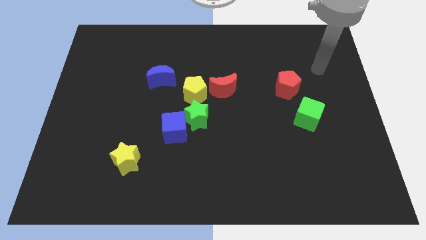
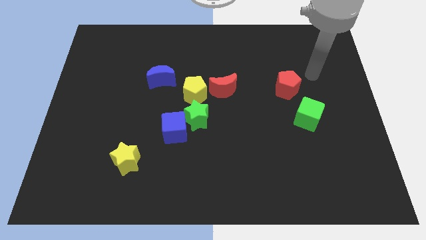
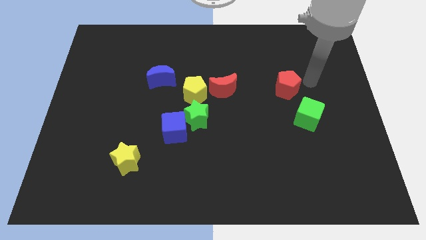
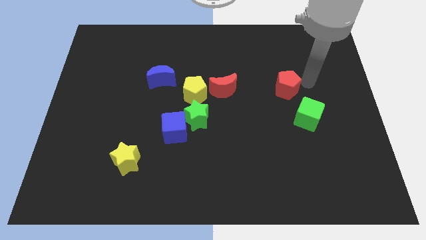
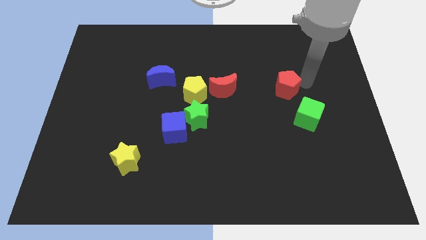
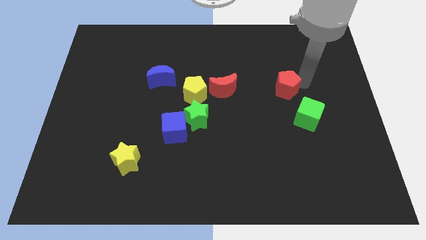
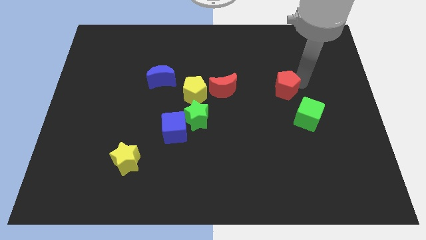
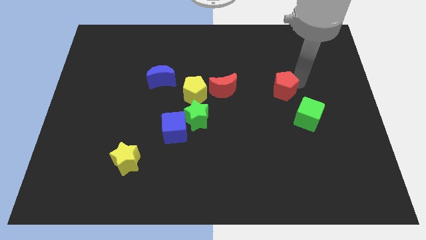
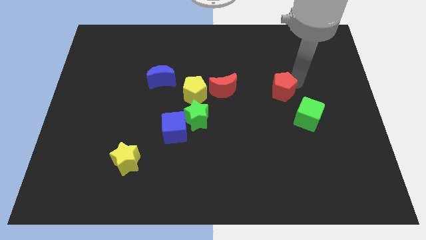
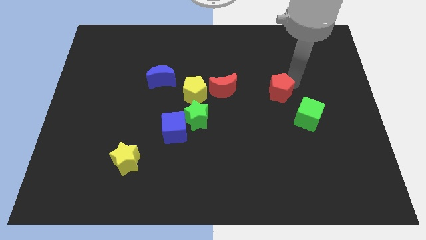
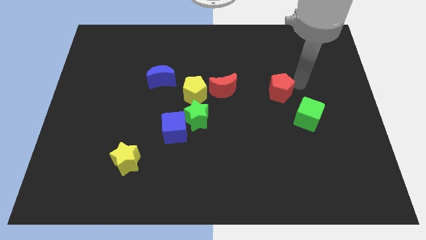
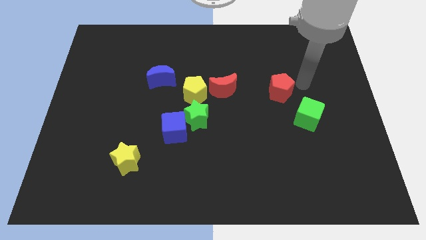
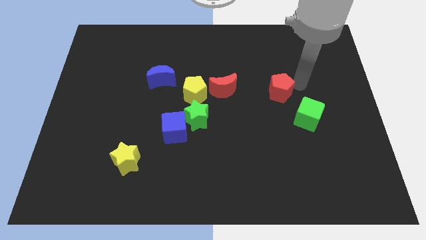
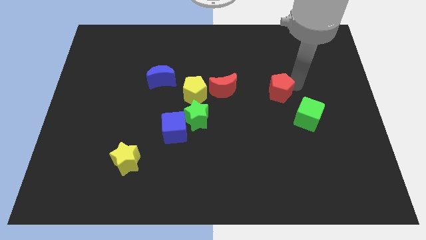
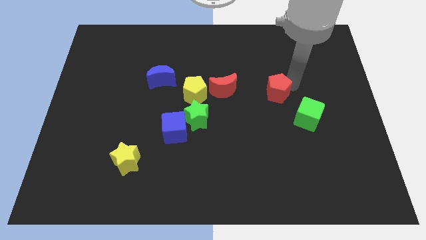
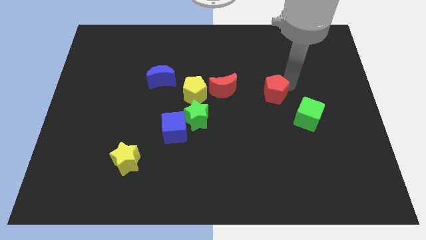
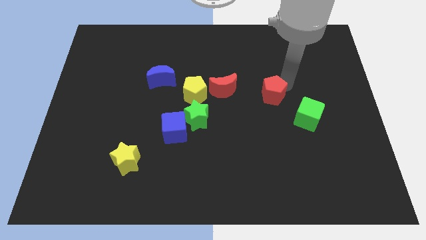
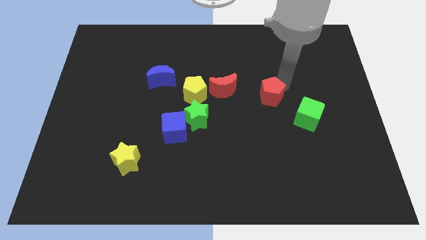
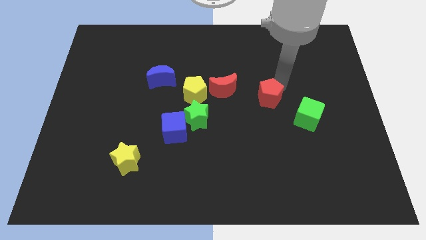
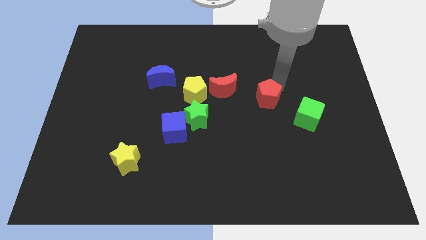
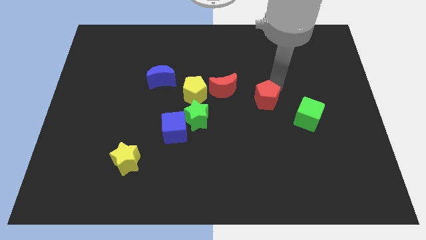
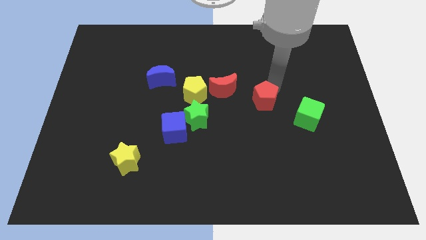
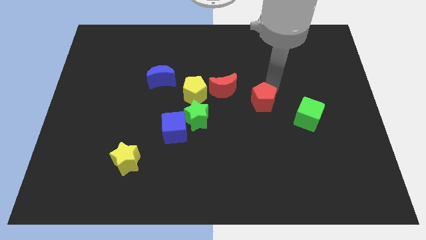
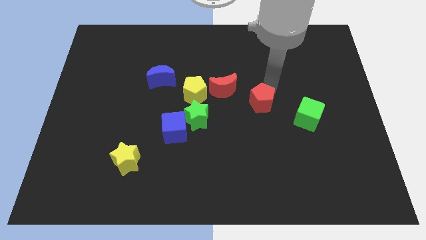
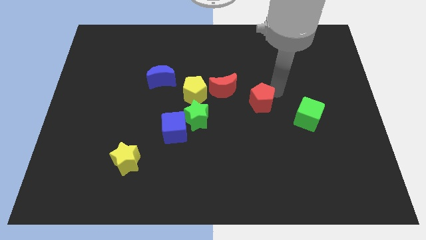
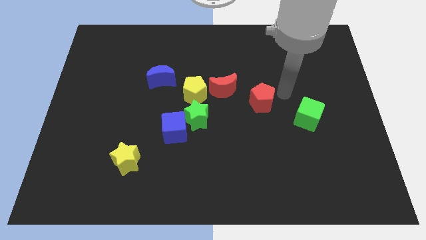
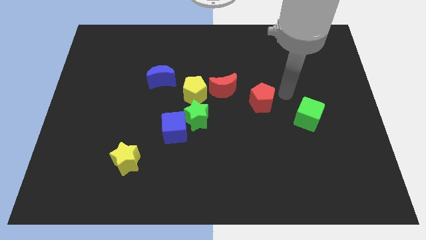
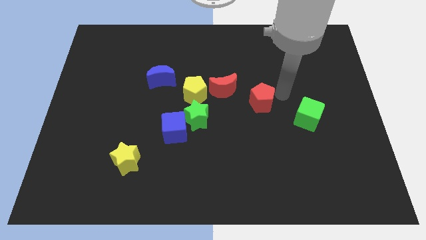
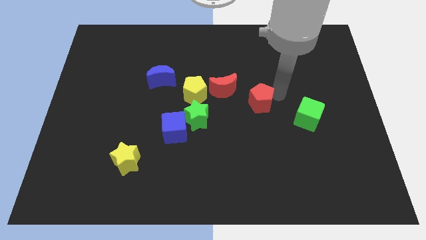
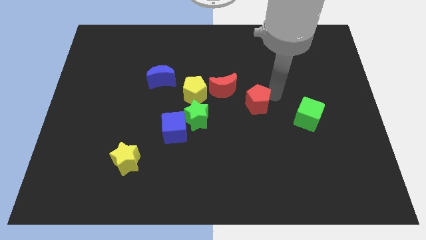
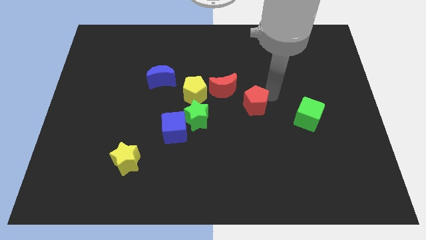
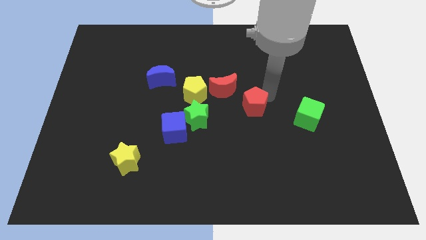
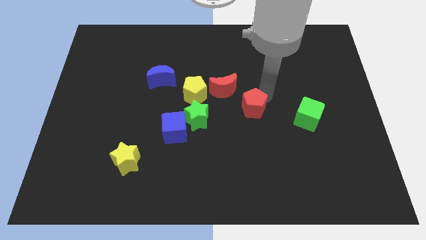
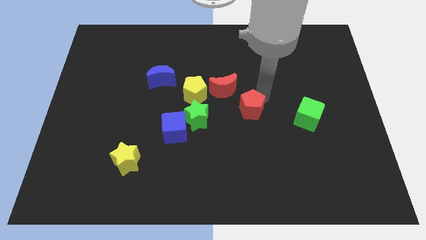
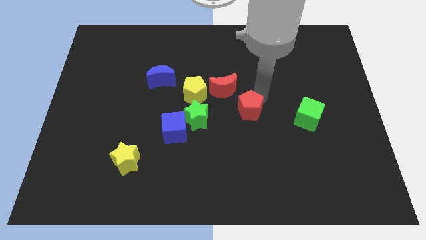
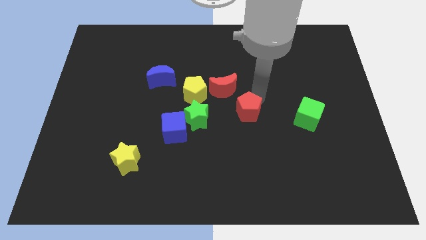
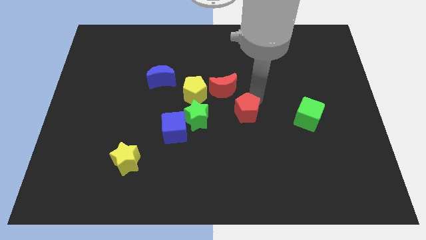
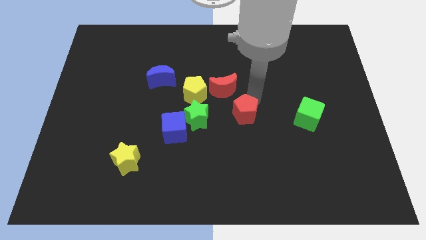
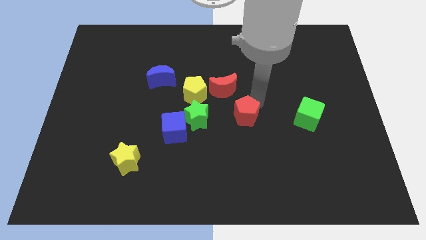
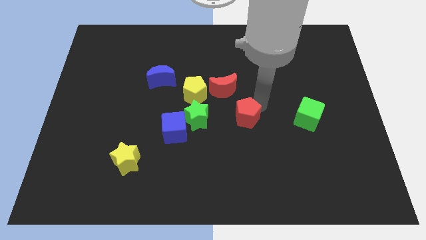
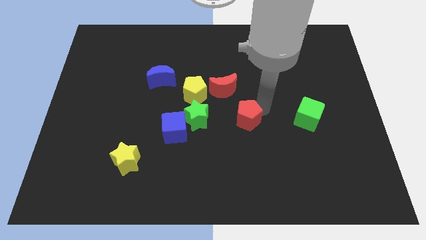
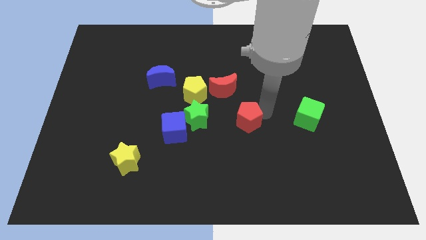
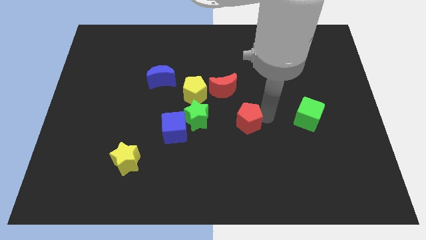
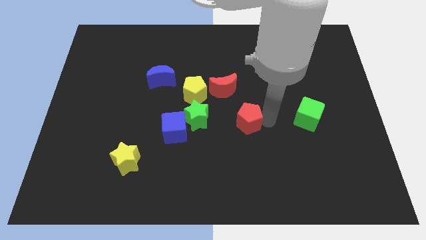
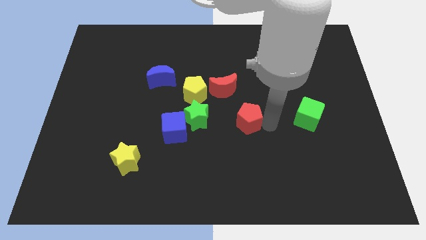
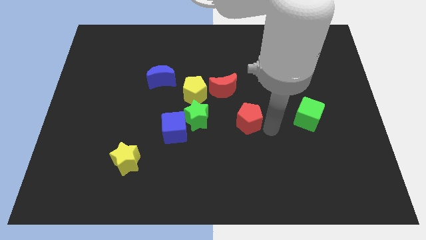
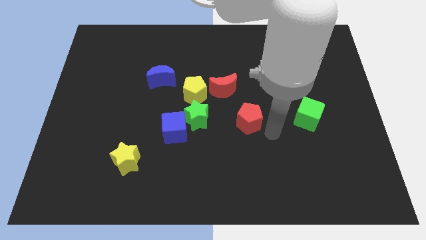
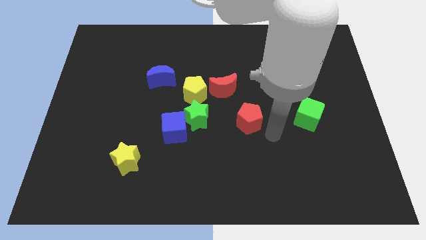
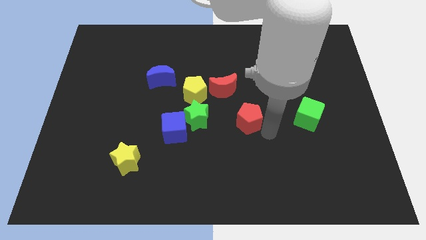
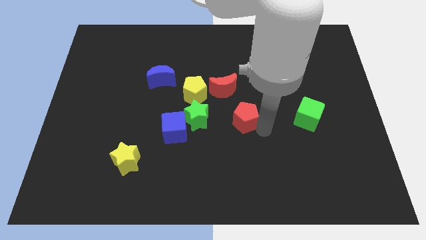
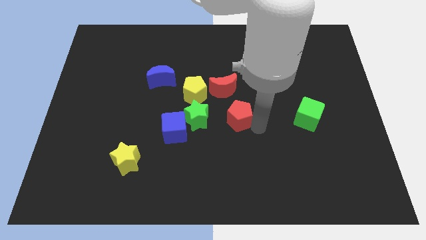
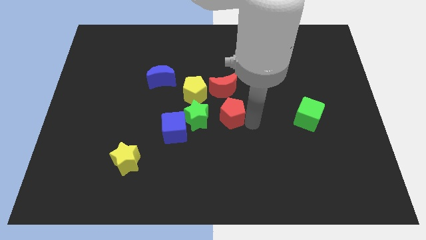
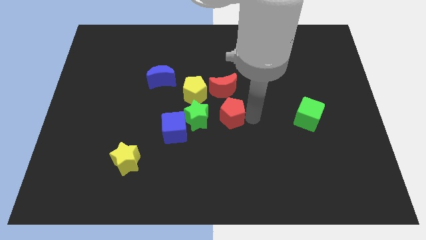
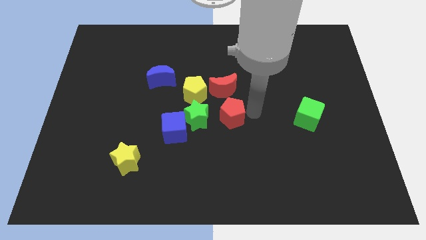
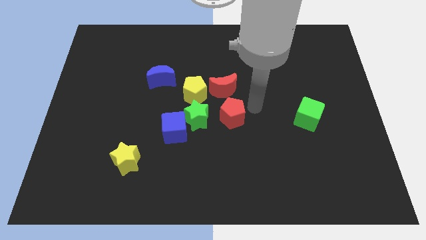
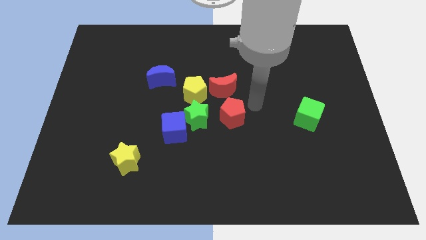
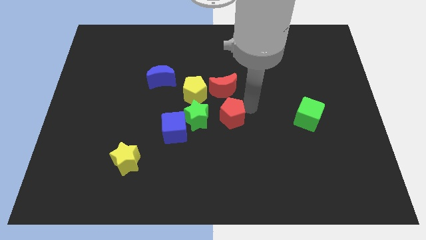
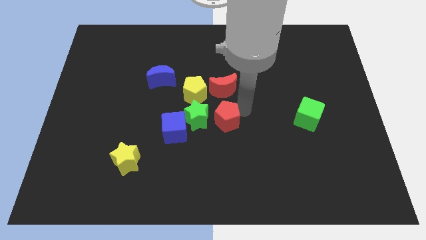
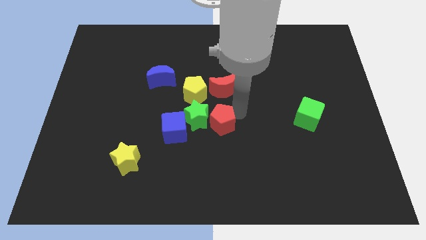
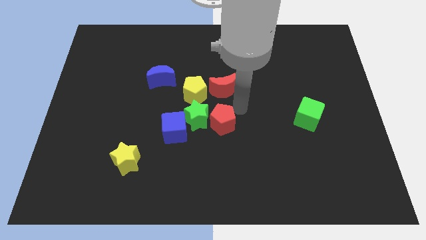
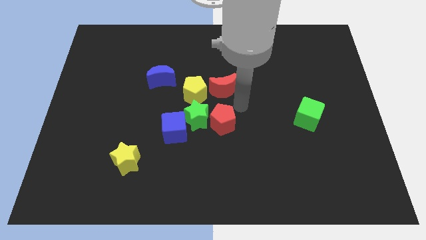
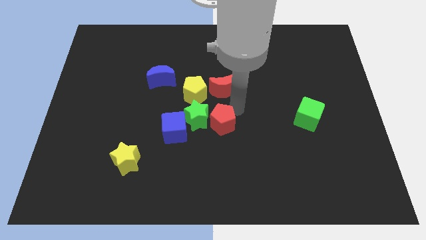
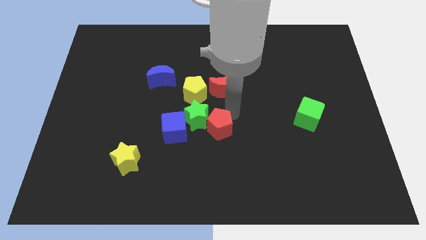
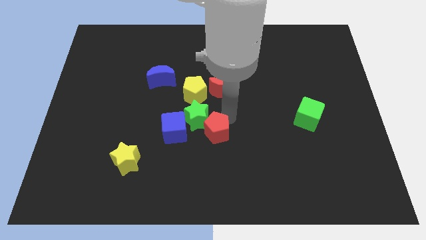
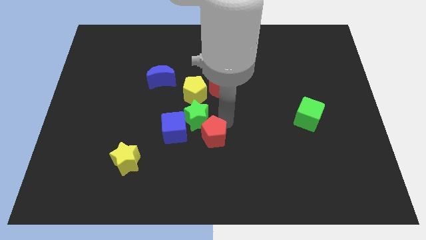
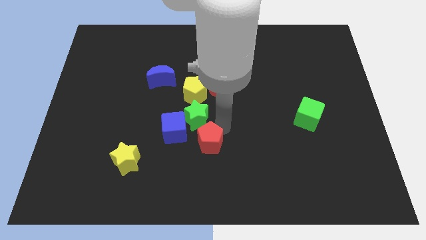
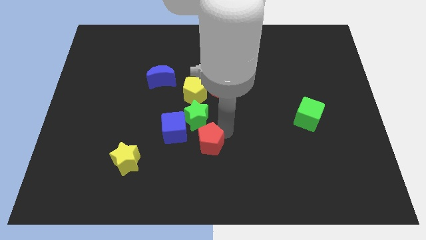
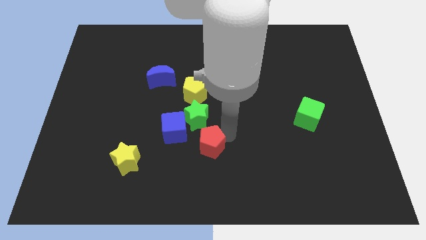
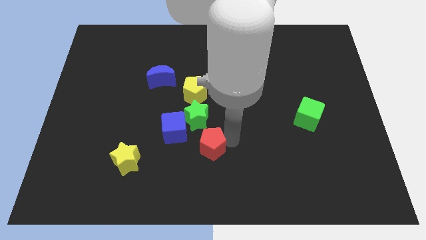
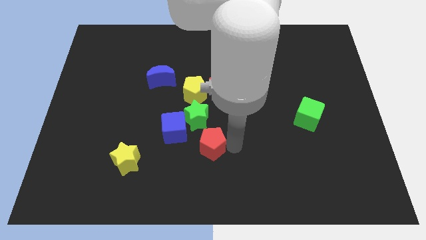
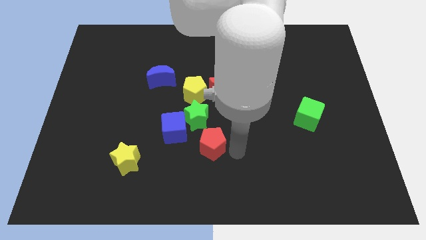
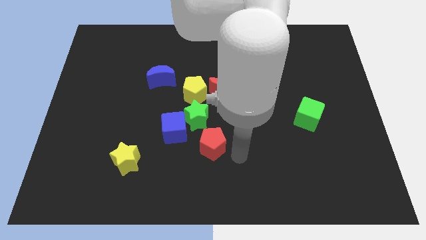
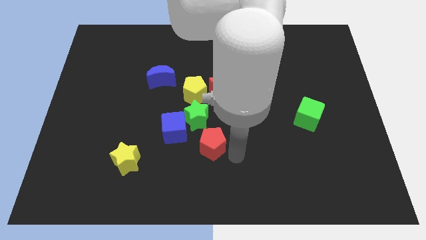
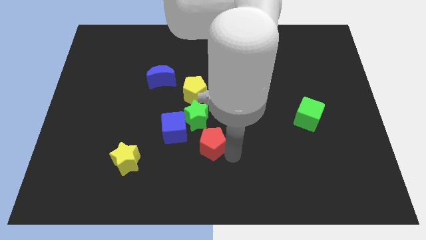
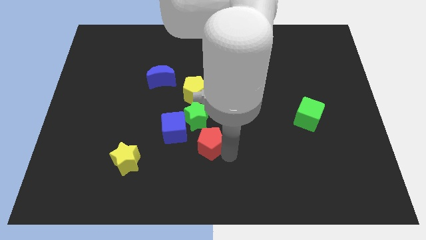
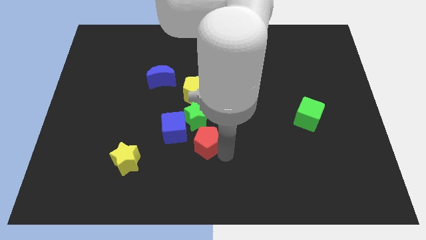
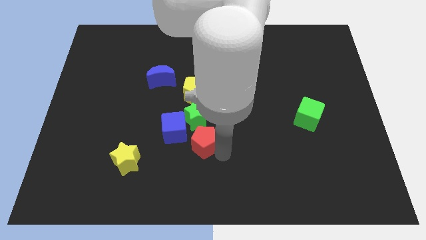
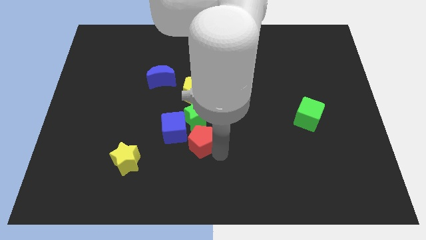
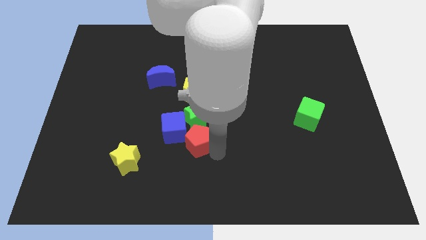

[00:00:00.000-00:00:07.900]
put the red pentagon next to the blue cube

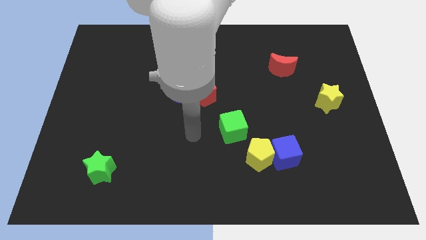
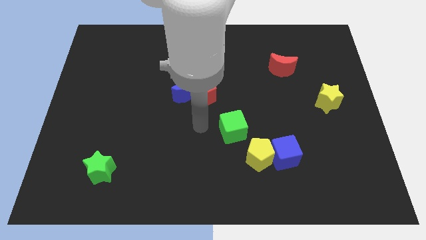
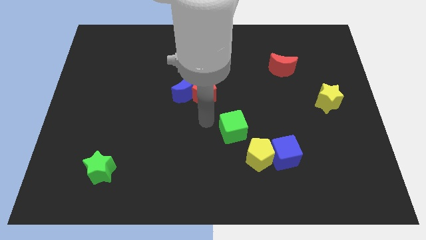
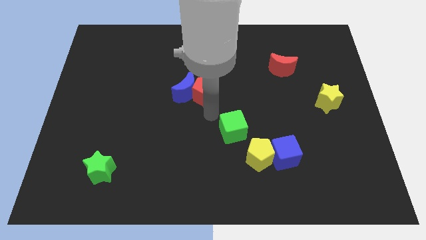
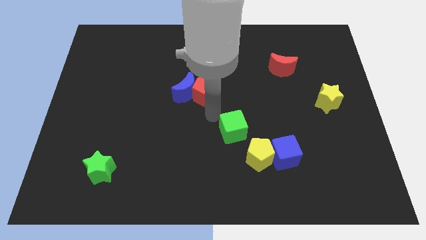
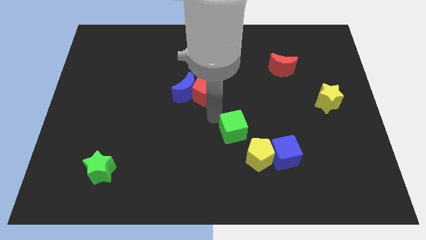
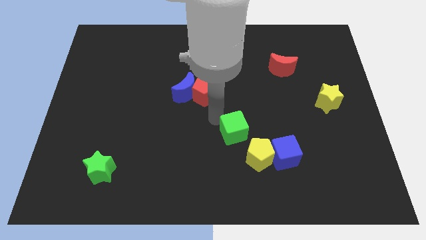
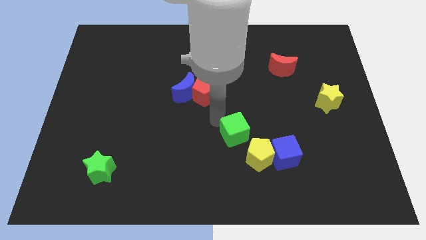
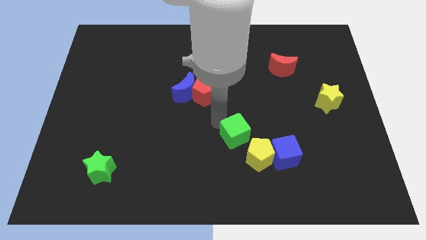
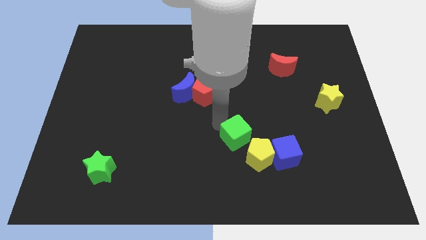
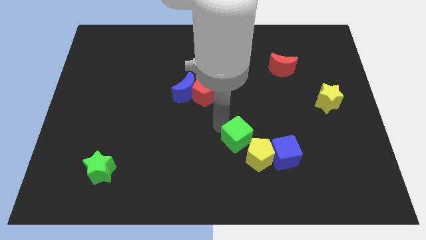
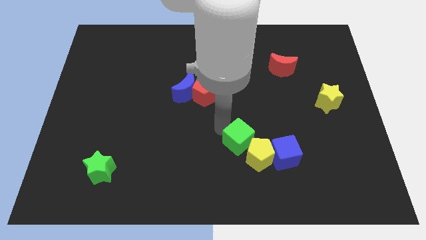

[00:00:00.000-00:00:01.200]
put the green cube towards the yellow pentagon
